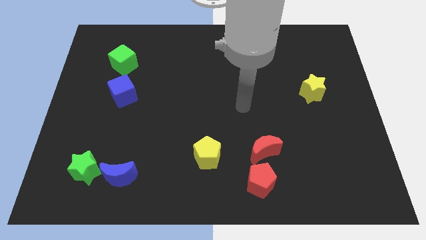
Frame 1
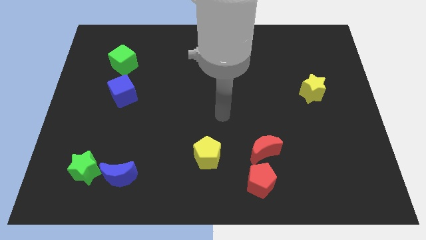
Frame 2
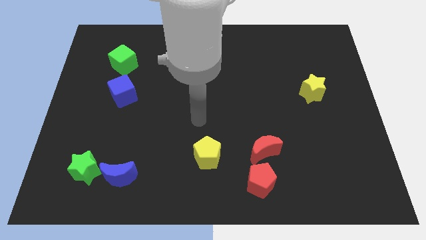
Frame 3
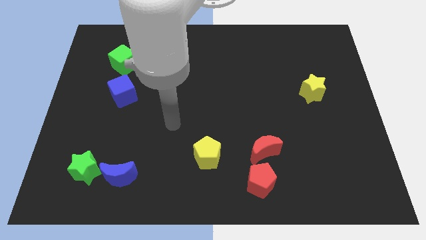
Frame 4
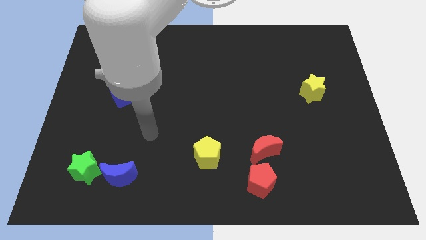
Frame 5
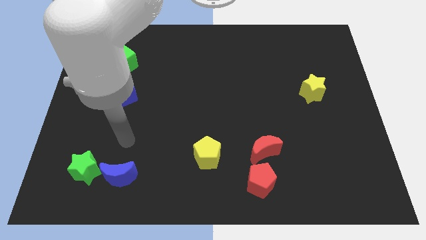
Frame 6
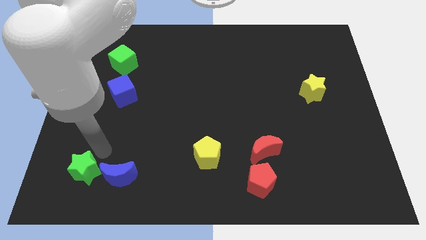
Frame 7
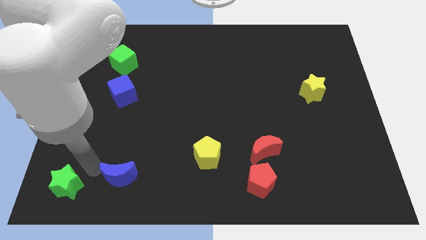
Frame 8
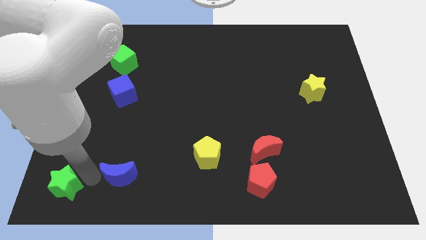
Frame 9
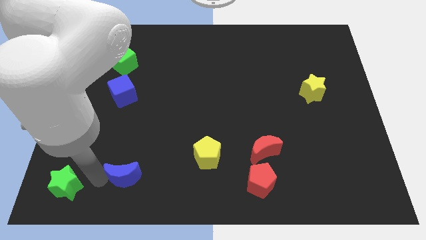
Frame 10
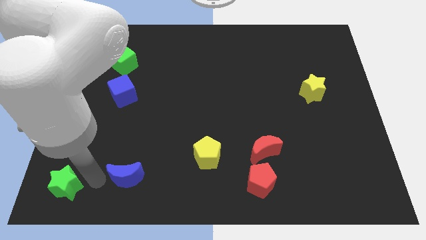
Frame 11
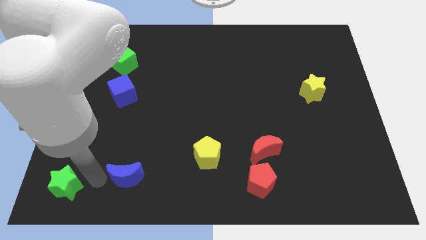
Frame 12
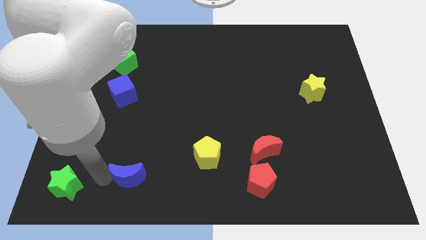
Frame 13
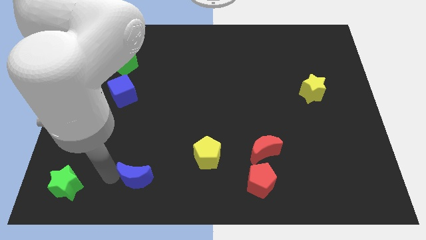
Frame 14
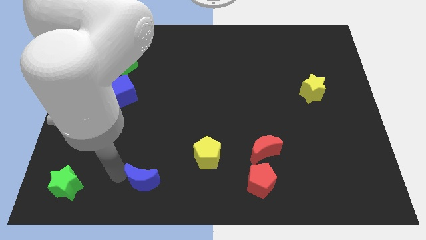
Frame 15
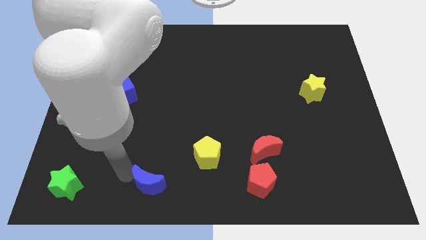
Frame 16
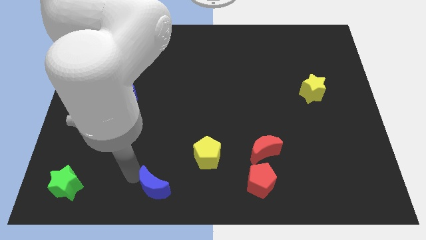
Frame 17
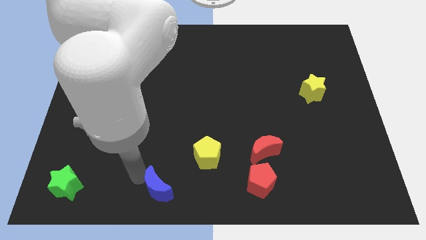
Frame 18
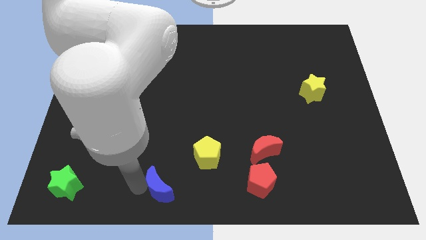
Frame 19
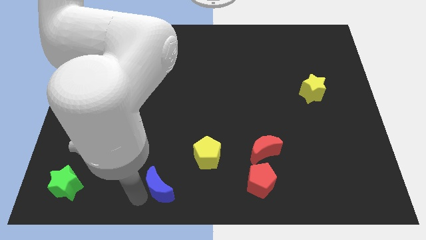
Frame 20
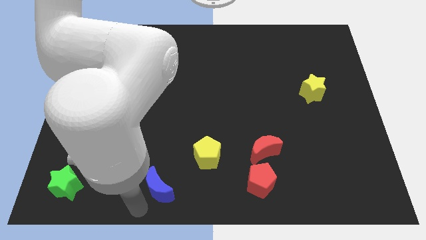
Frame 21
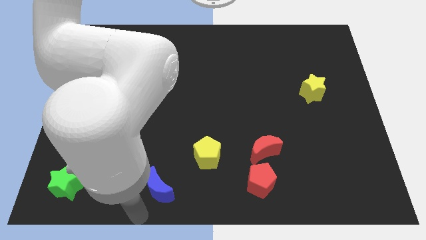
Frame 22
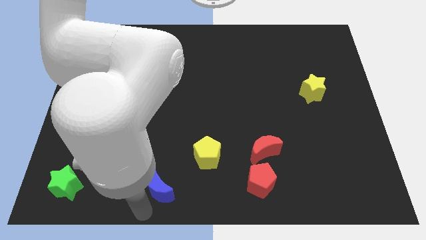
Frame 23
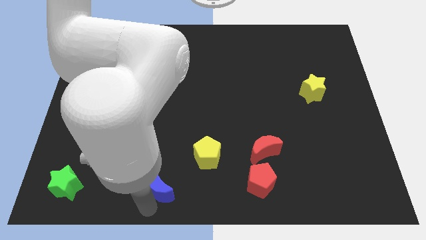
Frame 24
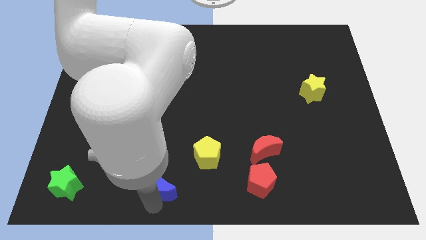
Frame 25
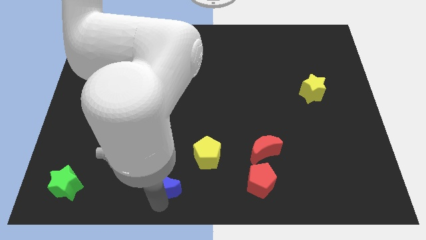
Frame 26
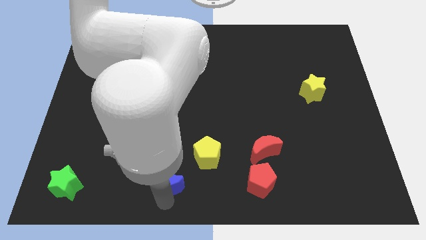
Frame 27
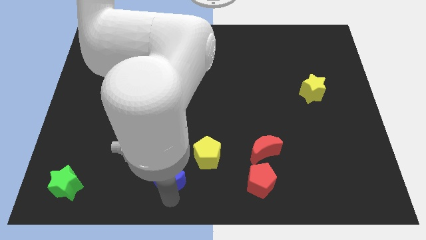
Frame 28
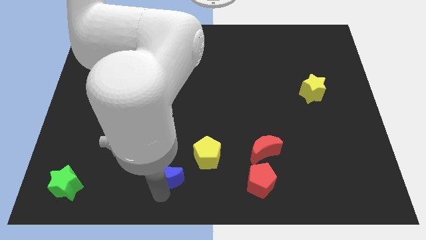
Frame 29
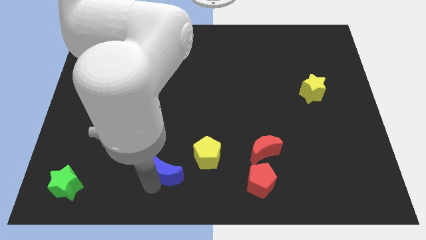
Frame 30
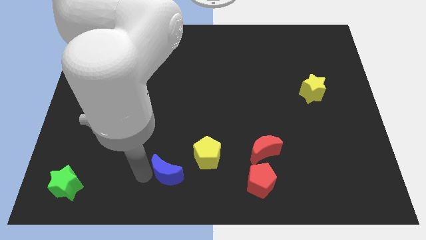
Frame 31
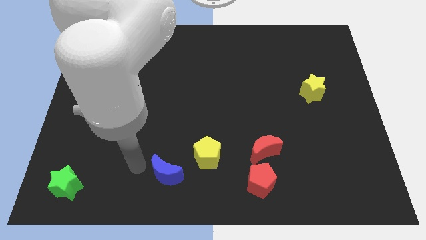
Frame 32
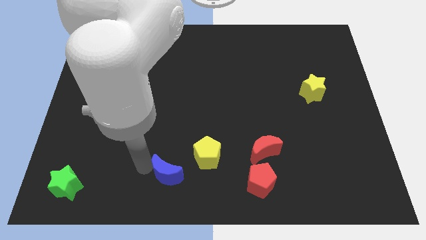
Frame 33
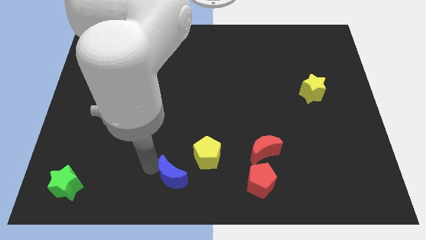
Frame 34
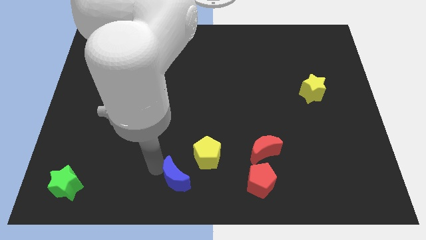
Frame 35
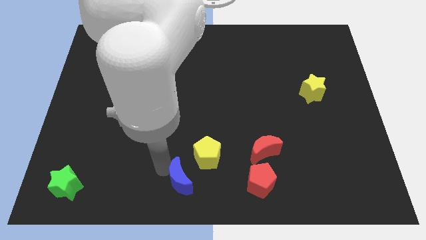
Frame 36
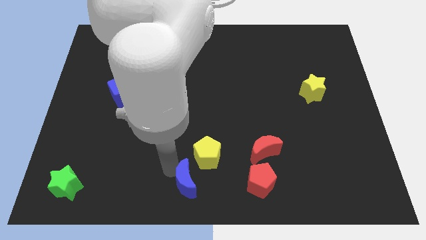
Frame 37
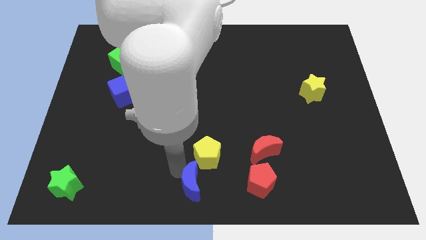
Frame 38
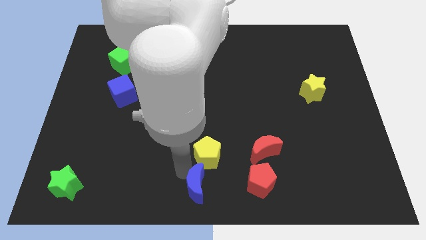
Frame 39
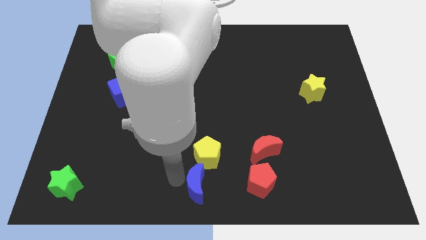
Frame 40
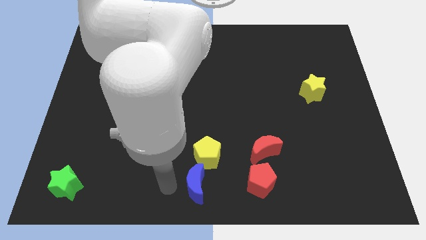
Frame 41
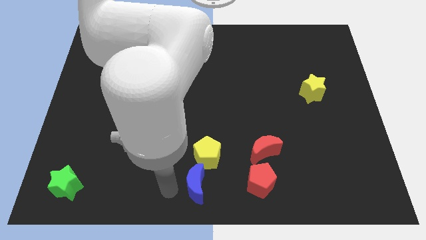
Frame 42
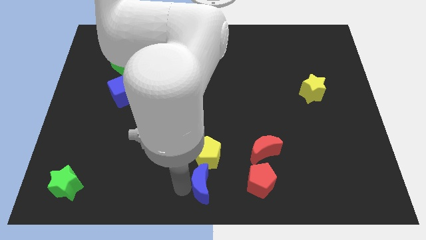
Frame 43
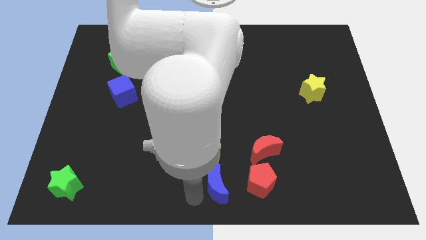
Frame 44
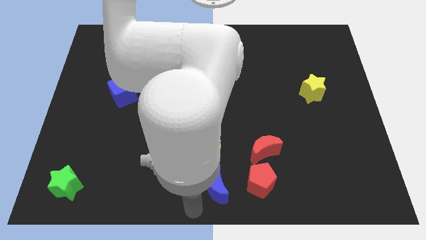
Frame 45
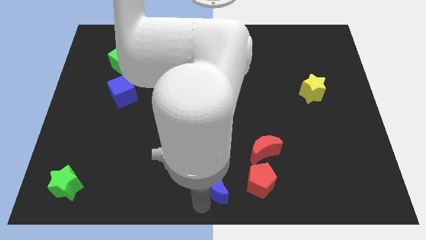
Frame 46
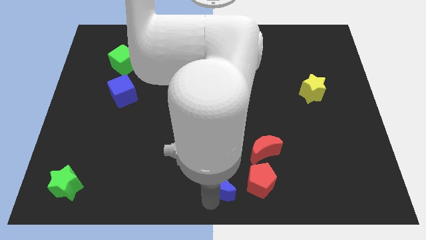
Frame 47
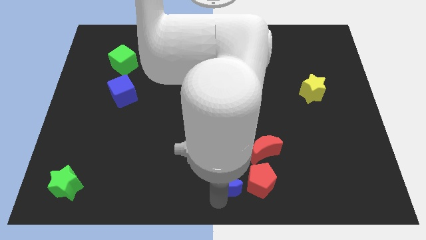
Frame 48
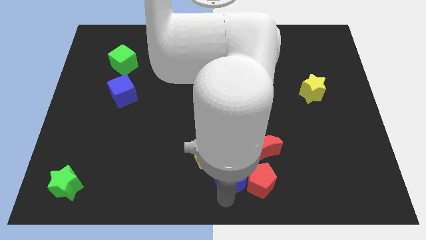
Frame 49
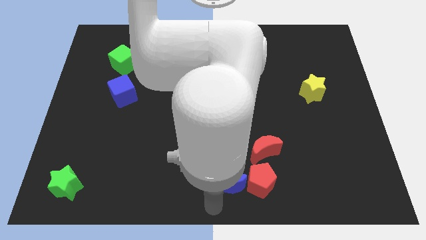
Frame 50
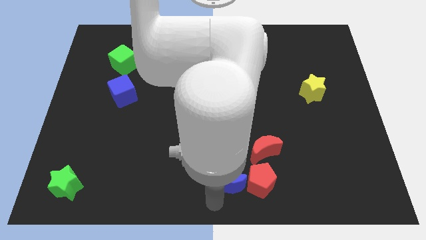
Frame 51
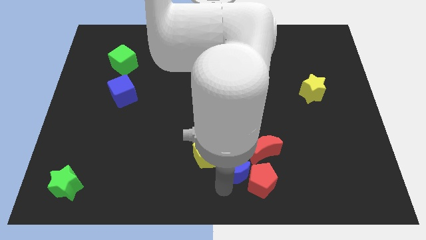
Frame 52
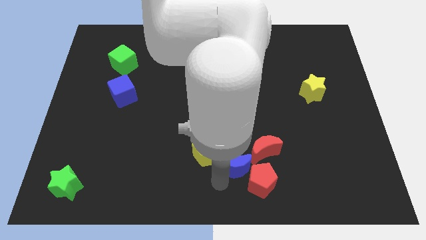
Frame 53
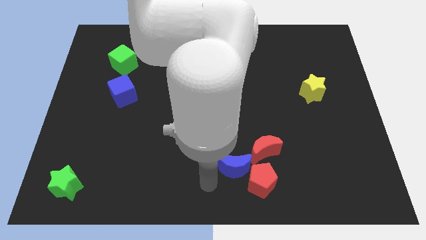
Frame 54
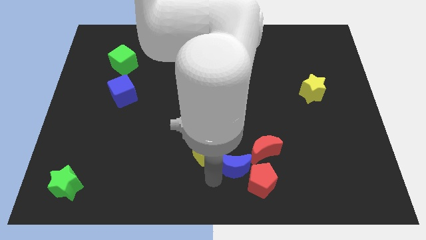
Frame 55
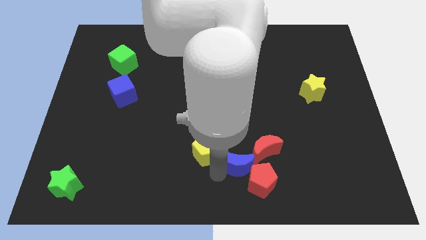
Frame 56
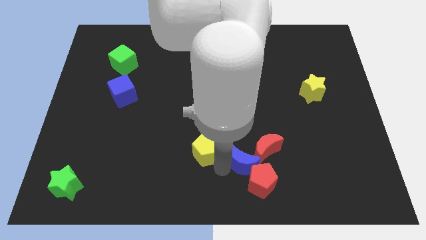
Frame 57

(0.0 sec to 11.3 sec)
move the blue moon close to the red moon

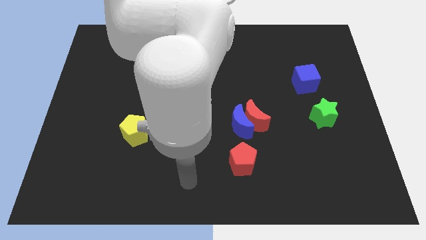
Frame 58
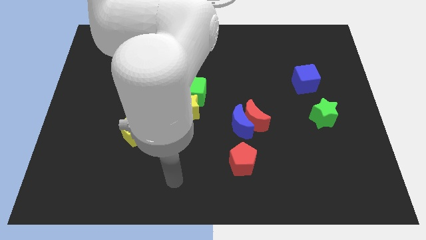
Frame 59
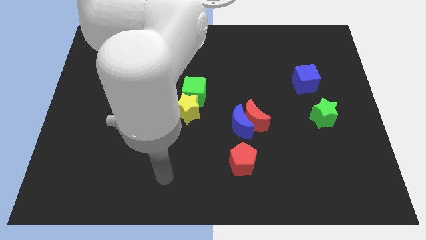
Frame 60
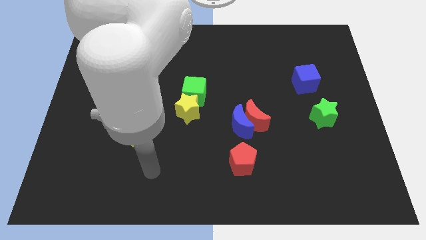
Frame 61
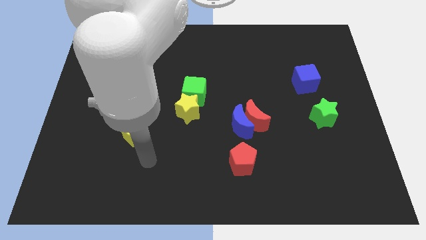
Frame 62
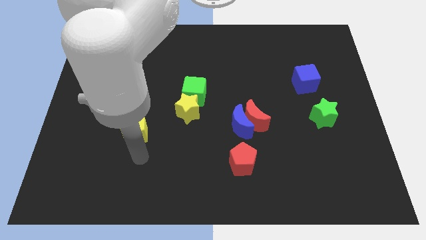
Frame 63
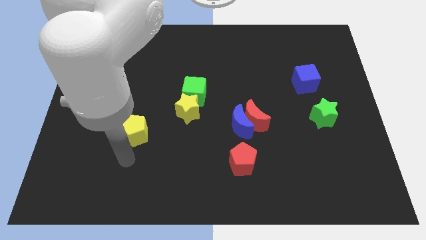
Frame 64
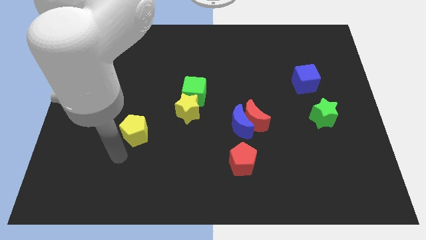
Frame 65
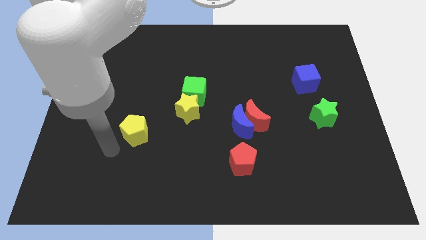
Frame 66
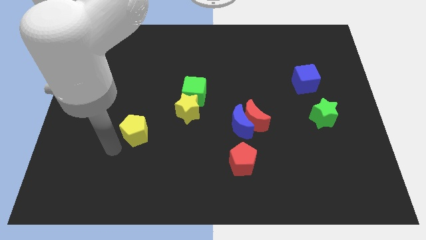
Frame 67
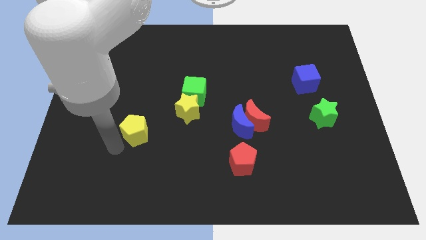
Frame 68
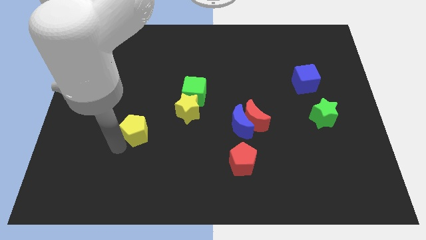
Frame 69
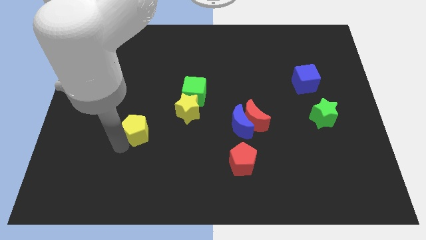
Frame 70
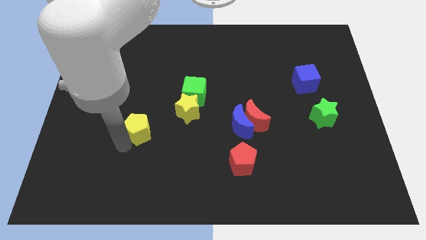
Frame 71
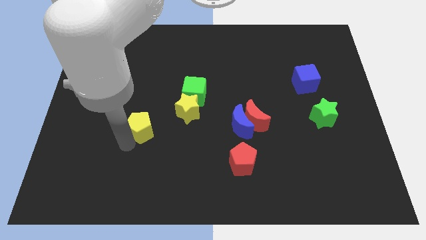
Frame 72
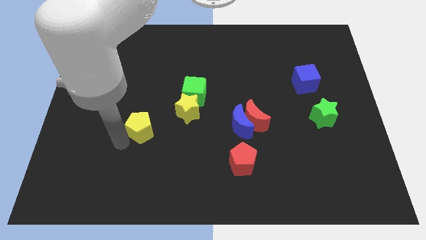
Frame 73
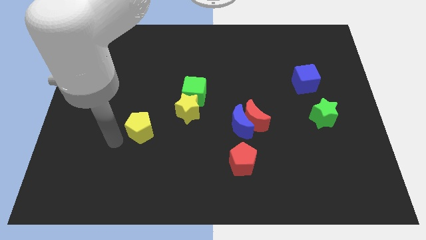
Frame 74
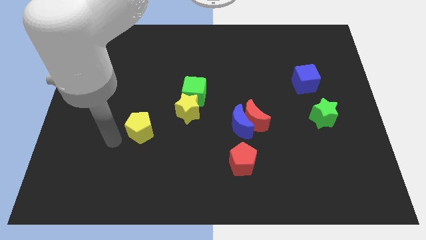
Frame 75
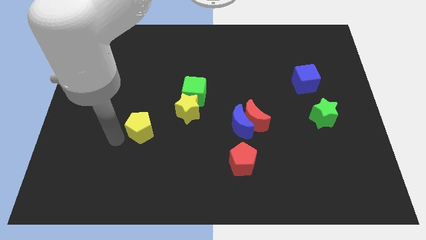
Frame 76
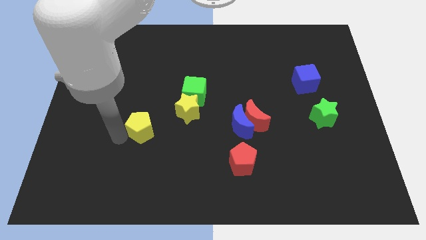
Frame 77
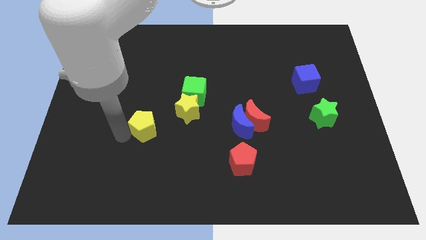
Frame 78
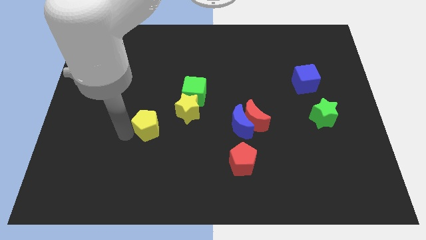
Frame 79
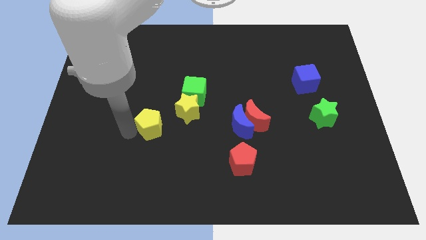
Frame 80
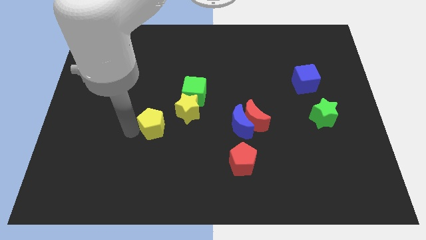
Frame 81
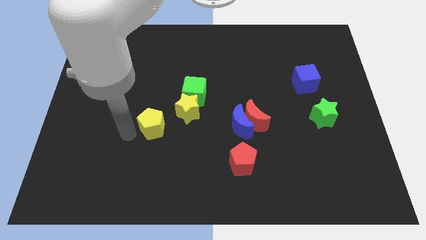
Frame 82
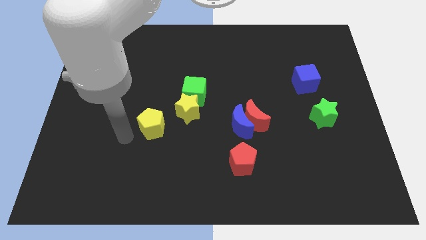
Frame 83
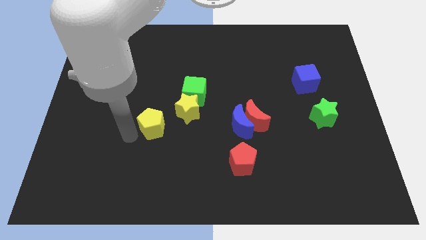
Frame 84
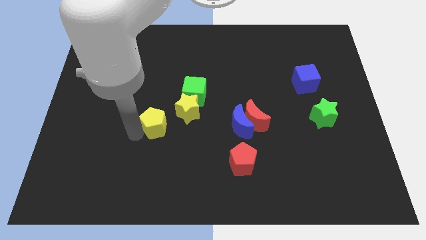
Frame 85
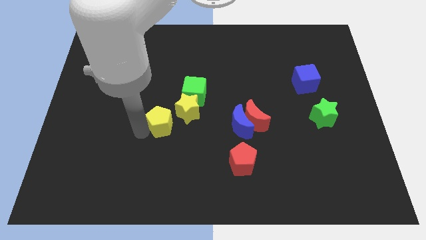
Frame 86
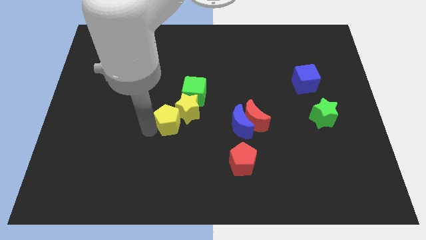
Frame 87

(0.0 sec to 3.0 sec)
put the yellow pentagon close to the yellow star
